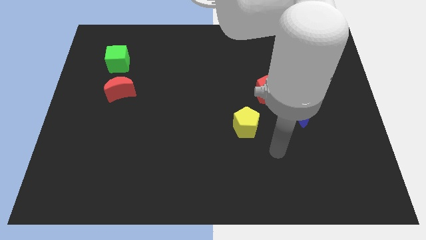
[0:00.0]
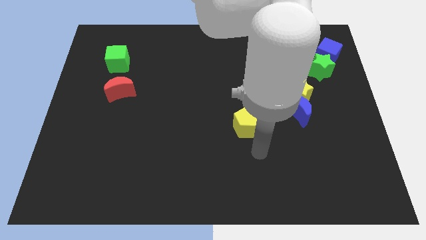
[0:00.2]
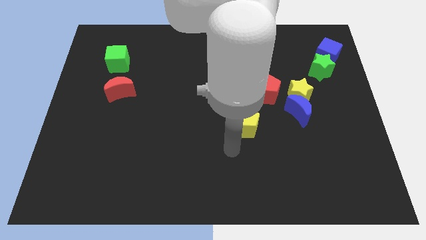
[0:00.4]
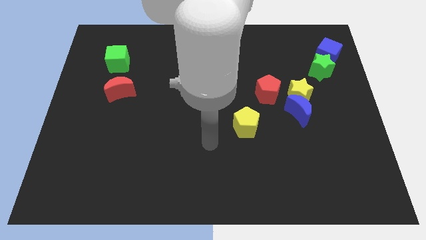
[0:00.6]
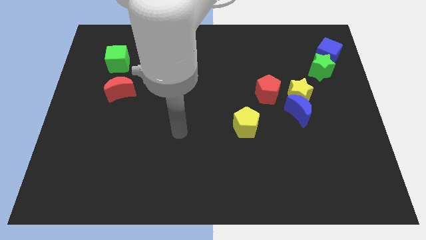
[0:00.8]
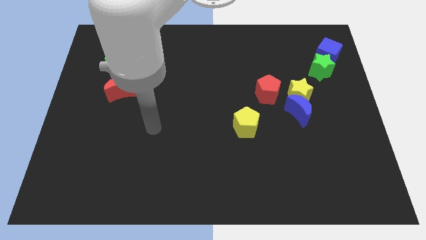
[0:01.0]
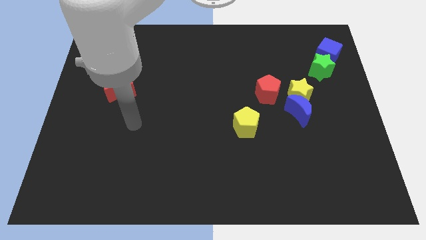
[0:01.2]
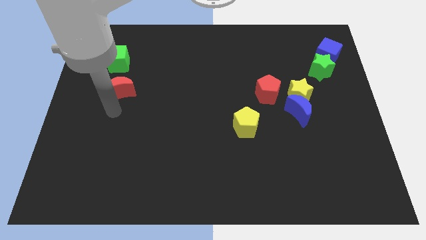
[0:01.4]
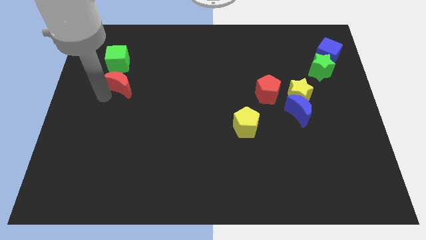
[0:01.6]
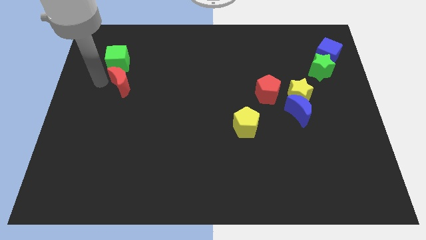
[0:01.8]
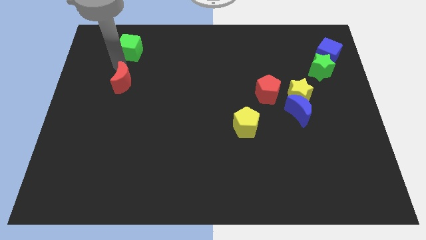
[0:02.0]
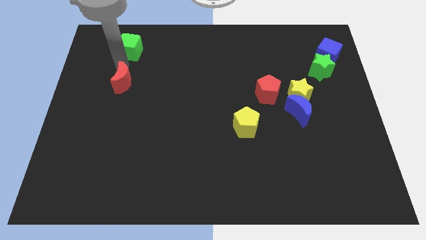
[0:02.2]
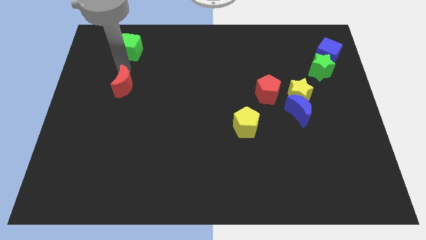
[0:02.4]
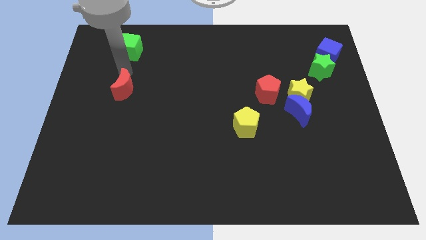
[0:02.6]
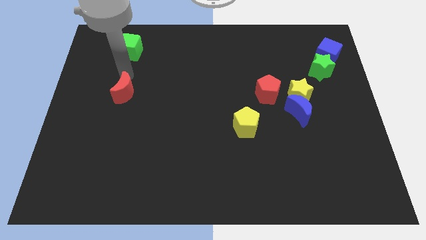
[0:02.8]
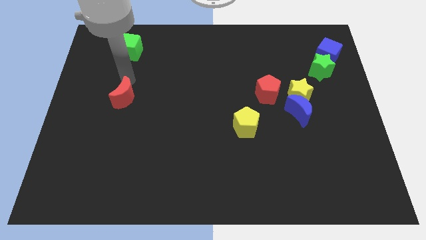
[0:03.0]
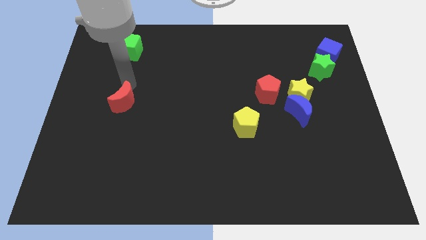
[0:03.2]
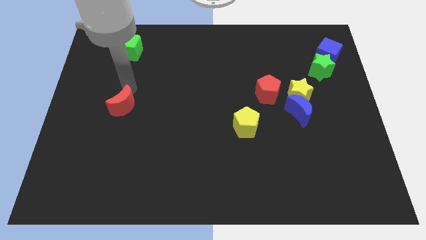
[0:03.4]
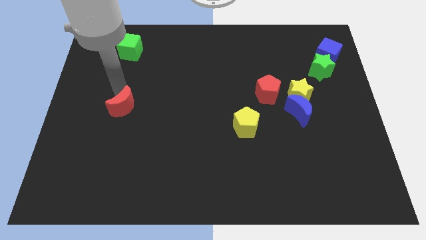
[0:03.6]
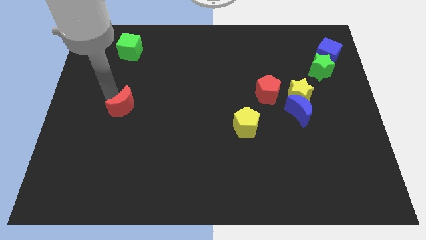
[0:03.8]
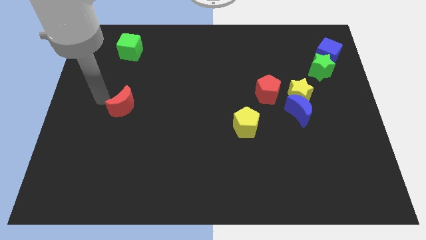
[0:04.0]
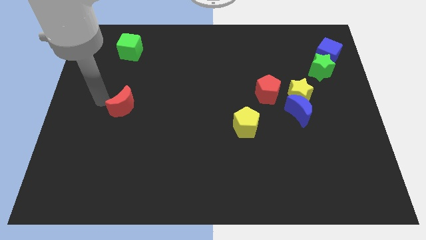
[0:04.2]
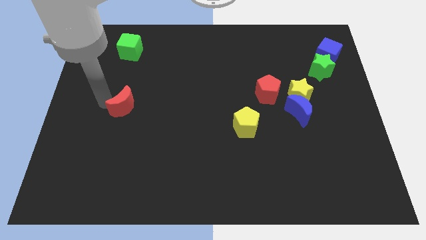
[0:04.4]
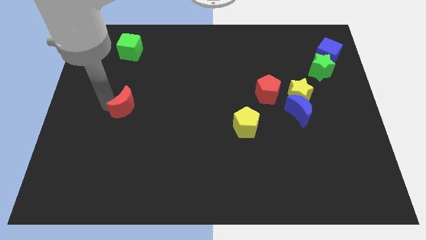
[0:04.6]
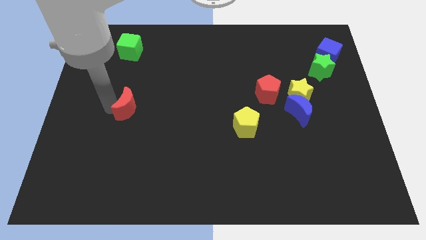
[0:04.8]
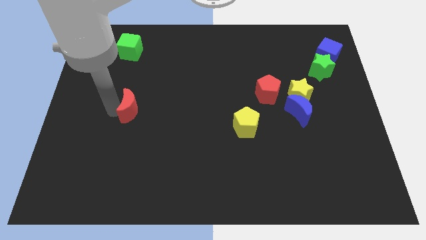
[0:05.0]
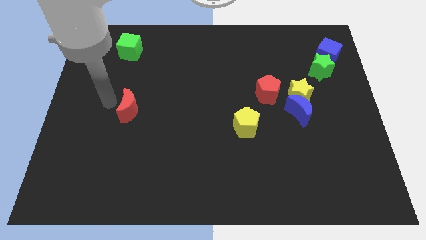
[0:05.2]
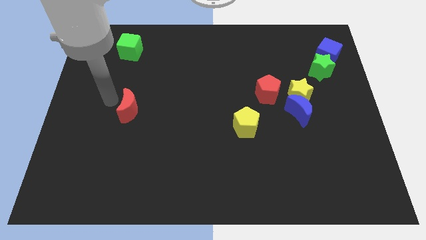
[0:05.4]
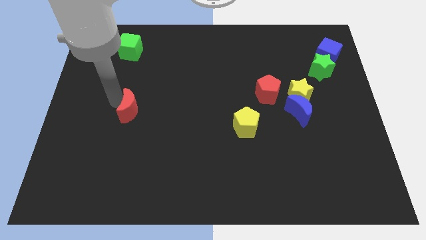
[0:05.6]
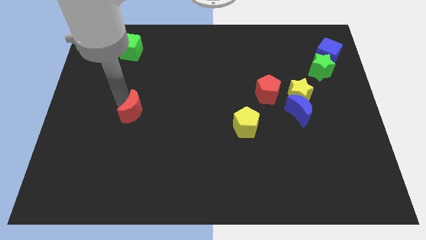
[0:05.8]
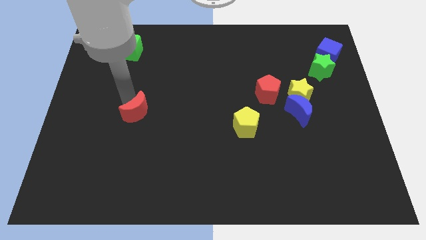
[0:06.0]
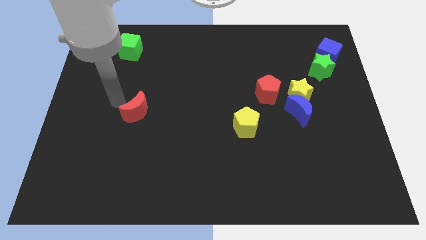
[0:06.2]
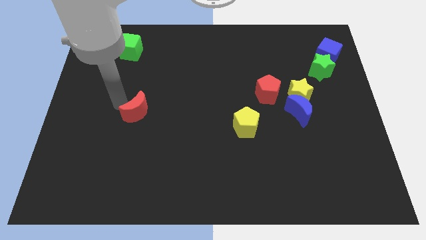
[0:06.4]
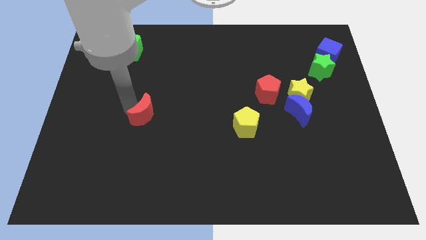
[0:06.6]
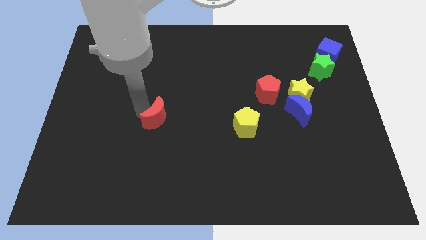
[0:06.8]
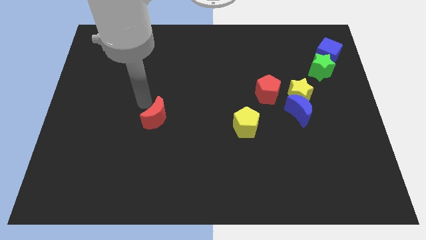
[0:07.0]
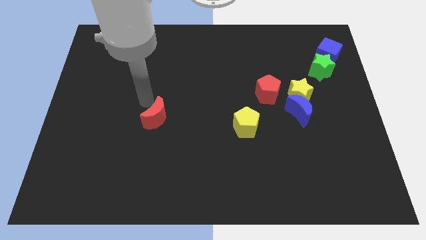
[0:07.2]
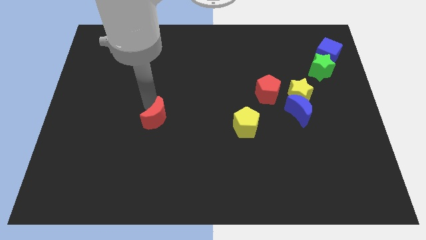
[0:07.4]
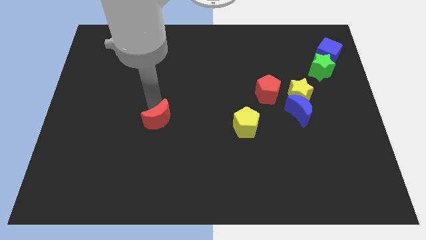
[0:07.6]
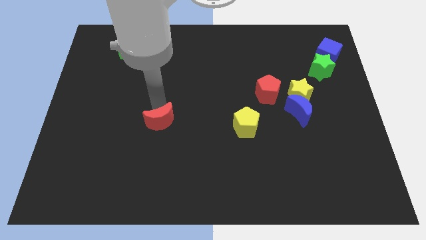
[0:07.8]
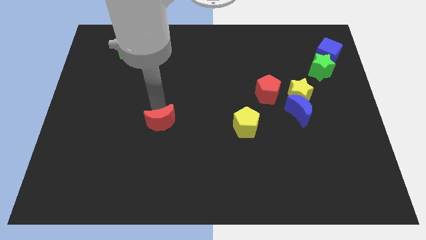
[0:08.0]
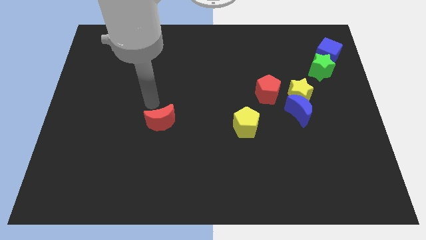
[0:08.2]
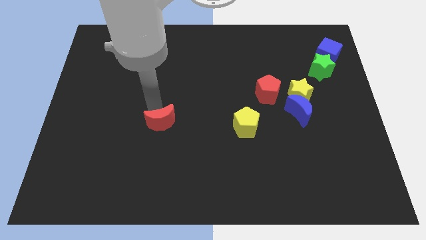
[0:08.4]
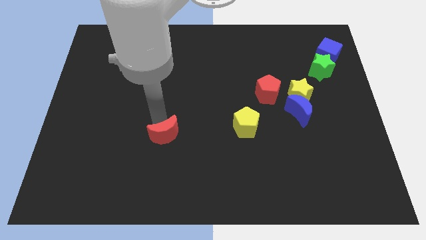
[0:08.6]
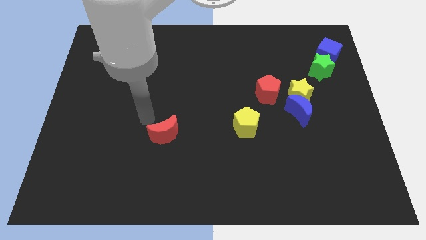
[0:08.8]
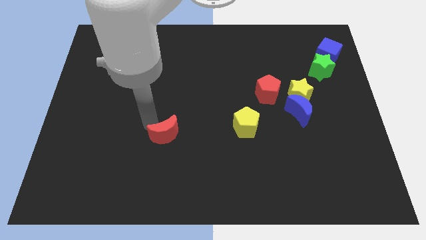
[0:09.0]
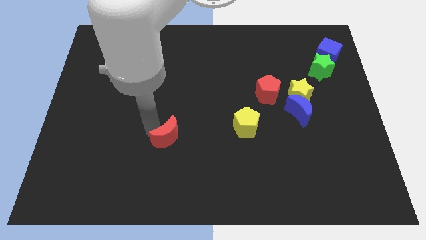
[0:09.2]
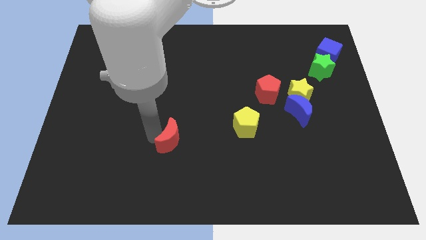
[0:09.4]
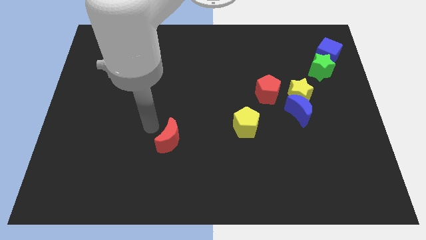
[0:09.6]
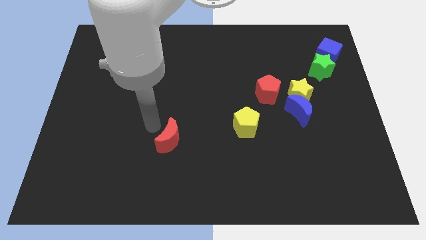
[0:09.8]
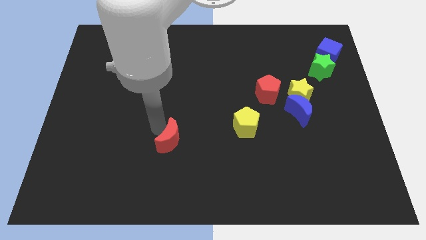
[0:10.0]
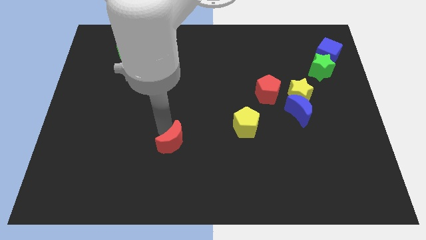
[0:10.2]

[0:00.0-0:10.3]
slide the red moon down and right

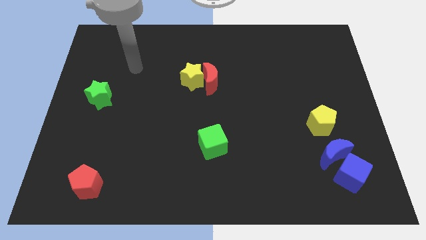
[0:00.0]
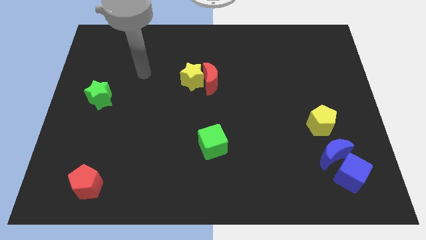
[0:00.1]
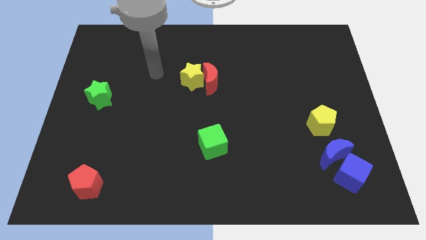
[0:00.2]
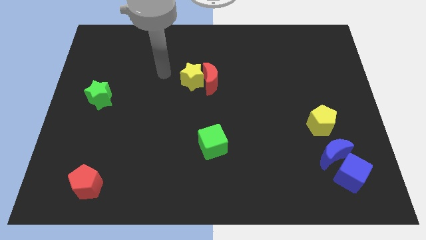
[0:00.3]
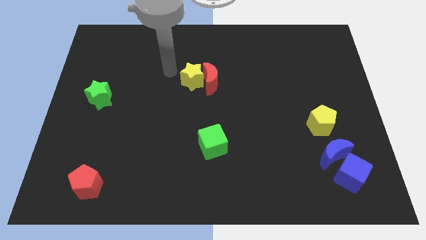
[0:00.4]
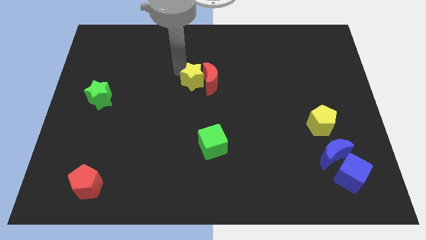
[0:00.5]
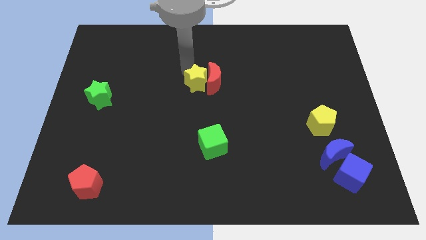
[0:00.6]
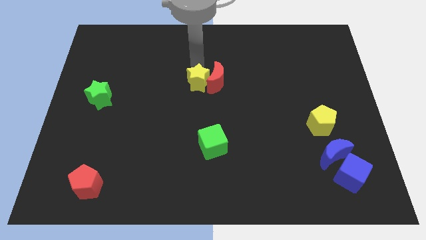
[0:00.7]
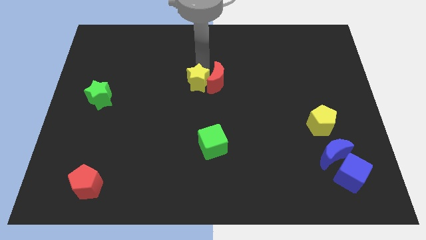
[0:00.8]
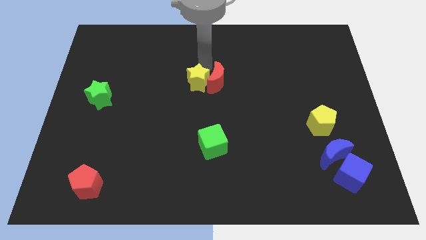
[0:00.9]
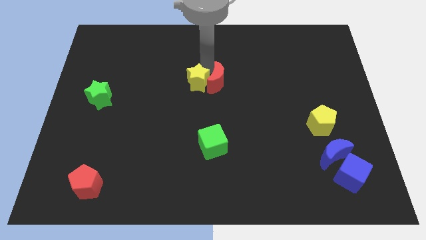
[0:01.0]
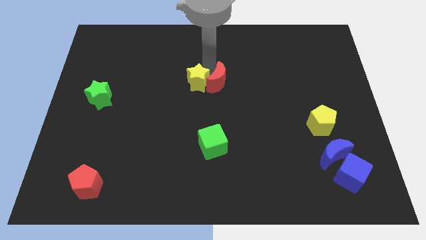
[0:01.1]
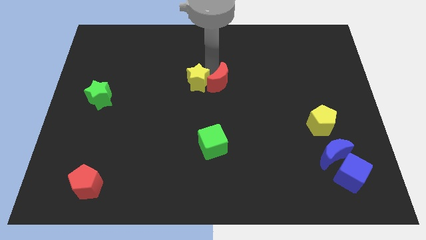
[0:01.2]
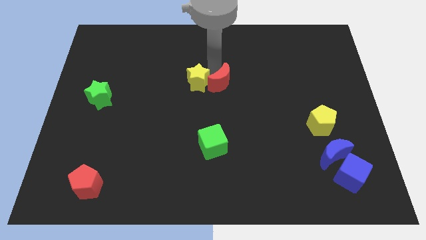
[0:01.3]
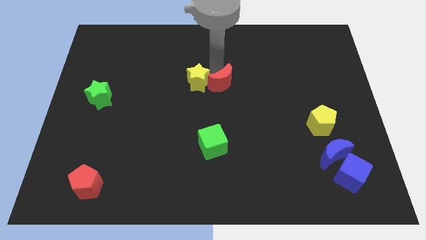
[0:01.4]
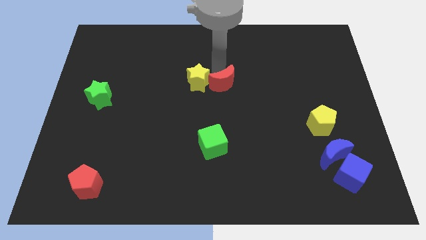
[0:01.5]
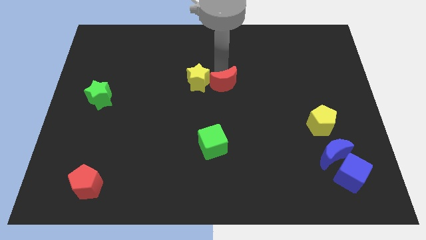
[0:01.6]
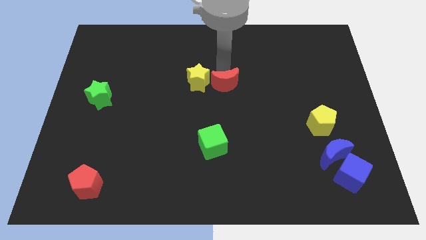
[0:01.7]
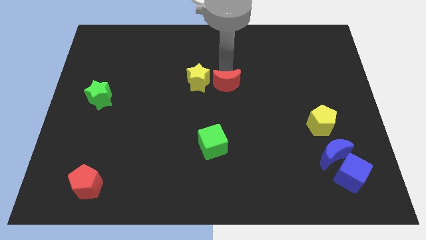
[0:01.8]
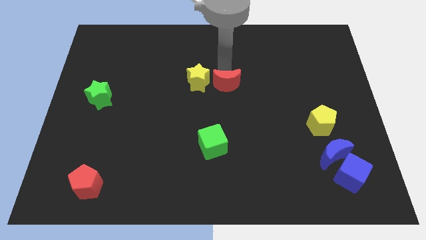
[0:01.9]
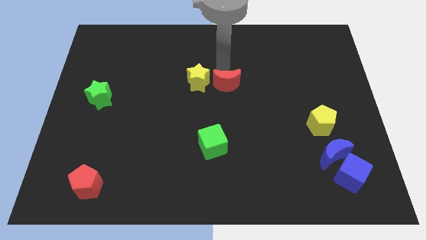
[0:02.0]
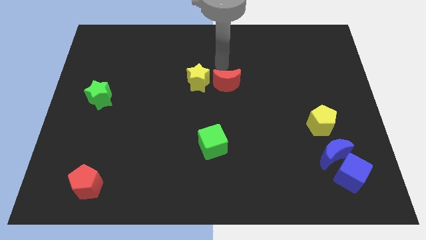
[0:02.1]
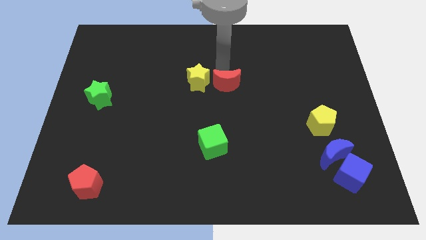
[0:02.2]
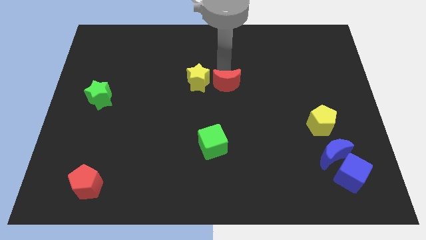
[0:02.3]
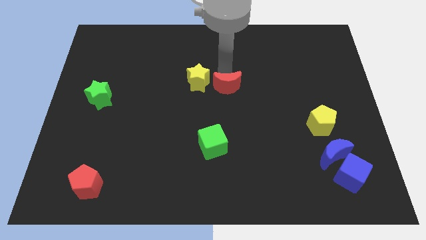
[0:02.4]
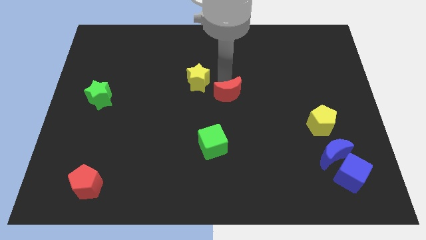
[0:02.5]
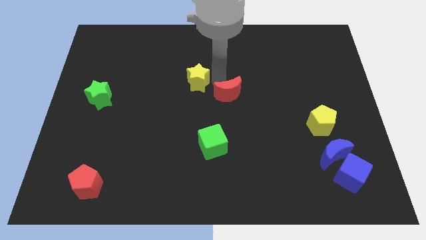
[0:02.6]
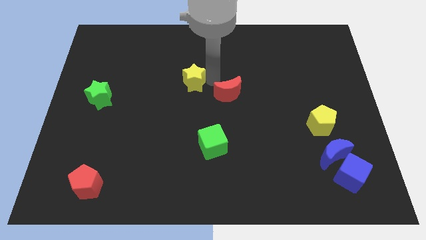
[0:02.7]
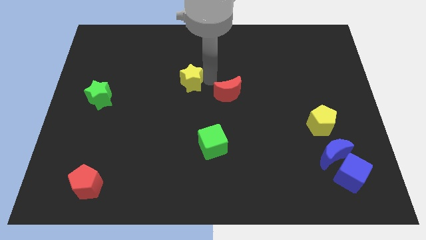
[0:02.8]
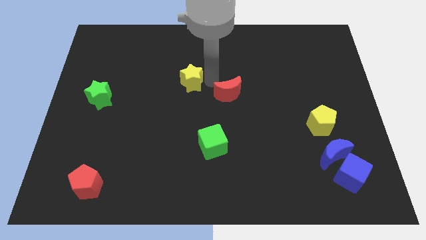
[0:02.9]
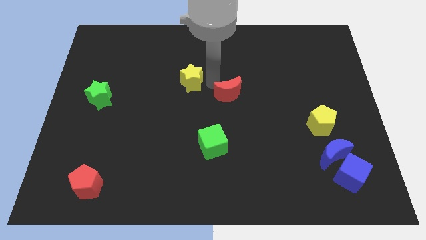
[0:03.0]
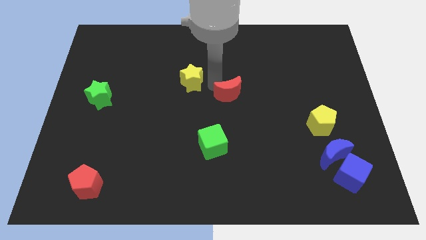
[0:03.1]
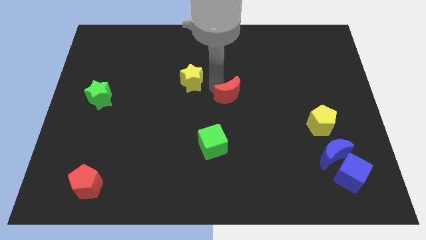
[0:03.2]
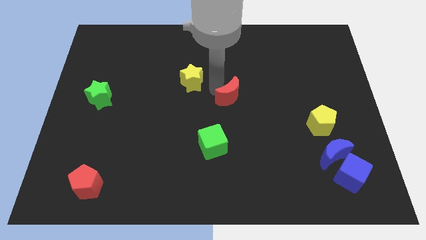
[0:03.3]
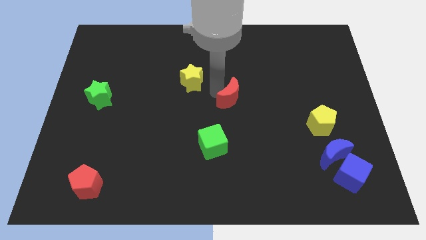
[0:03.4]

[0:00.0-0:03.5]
push the red moon diagonally down and to the right a little
